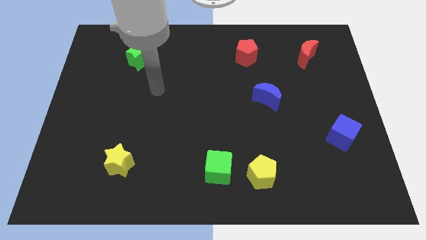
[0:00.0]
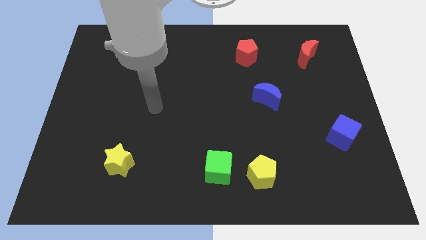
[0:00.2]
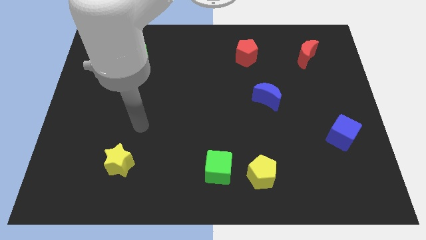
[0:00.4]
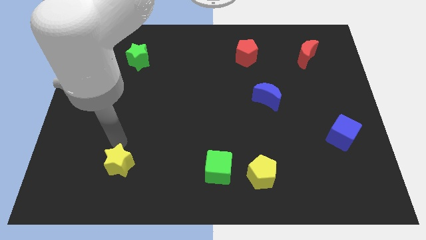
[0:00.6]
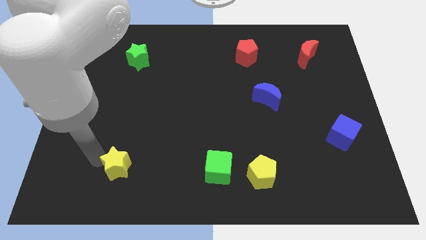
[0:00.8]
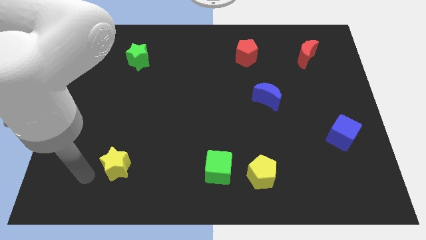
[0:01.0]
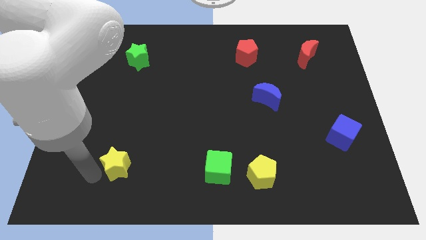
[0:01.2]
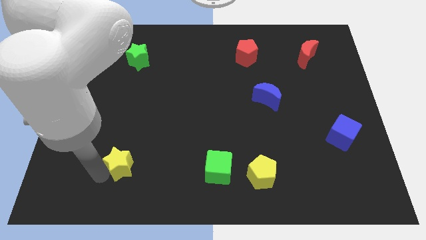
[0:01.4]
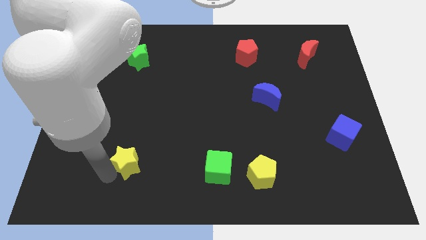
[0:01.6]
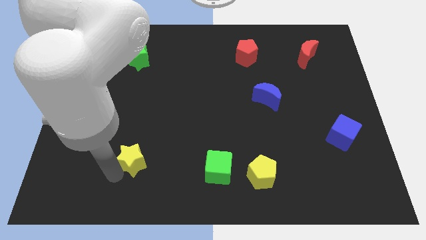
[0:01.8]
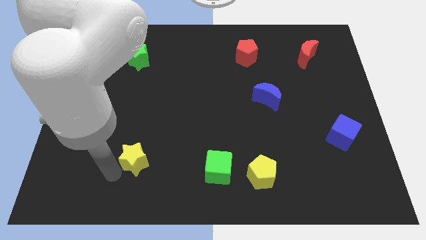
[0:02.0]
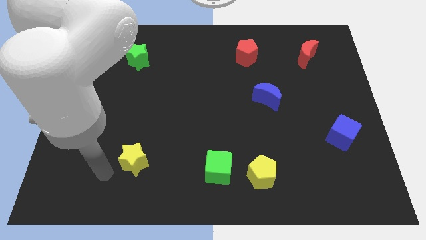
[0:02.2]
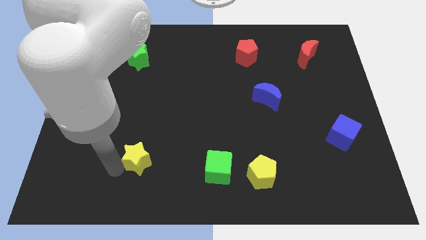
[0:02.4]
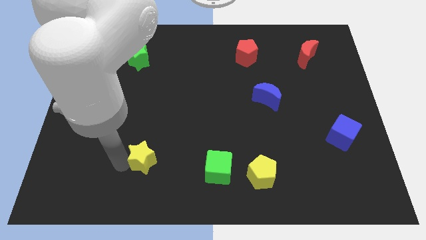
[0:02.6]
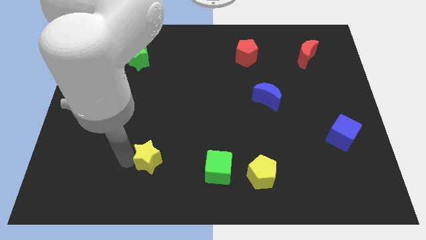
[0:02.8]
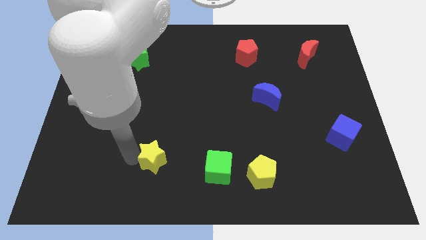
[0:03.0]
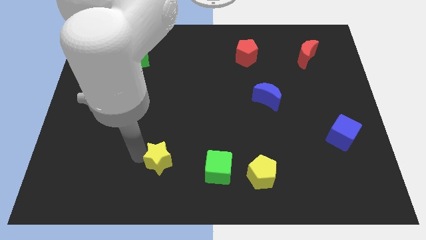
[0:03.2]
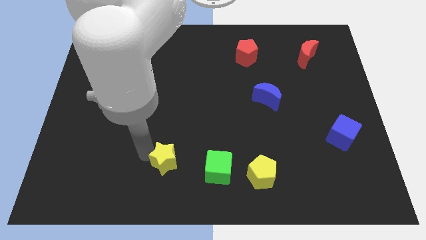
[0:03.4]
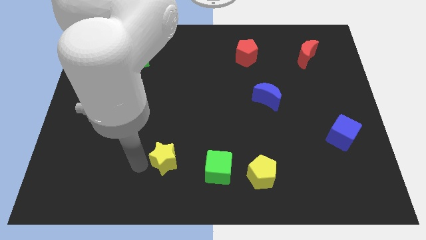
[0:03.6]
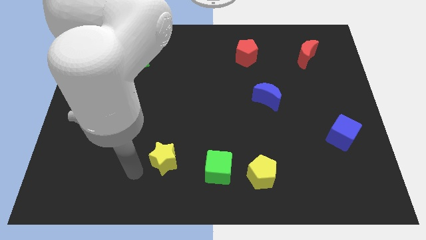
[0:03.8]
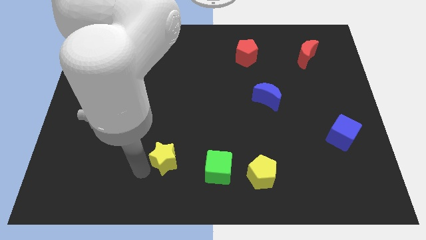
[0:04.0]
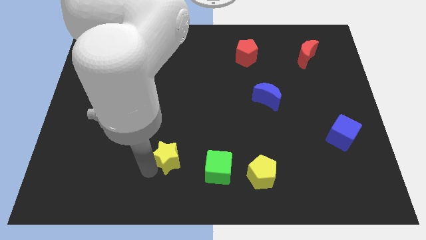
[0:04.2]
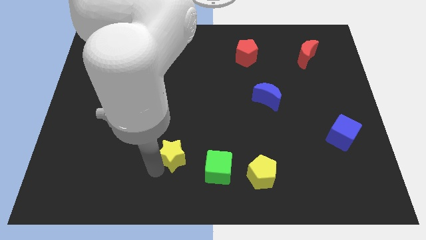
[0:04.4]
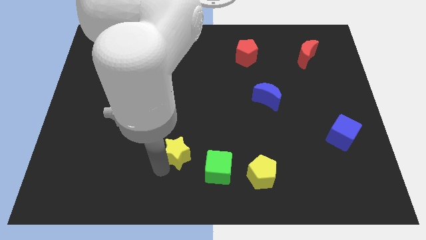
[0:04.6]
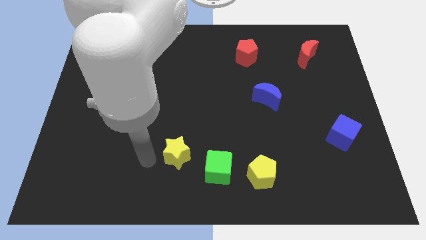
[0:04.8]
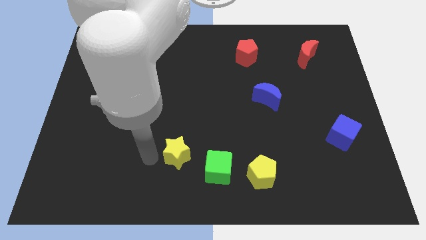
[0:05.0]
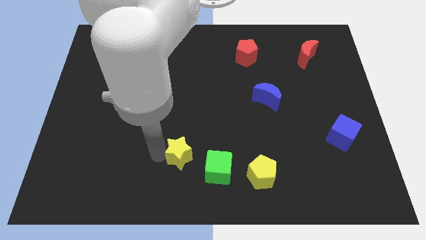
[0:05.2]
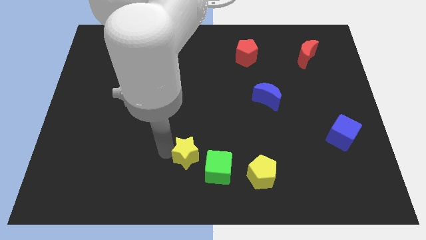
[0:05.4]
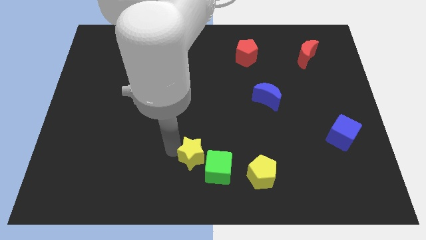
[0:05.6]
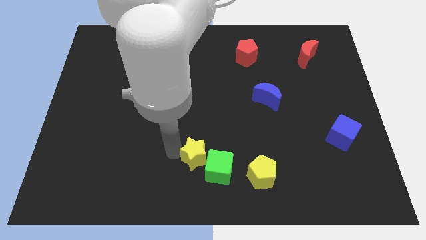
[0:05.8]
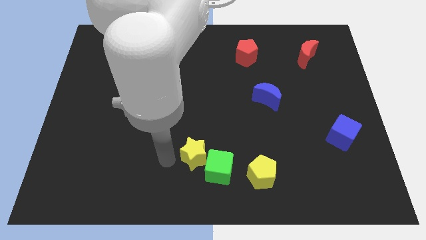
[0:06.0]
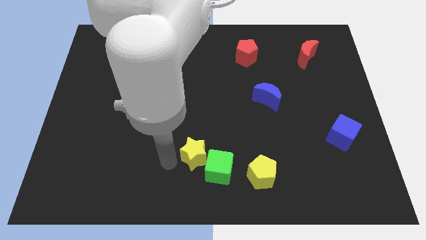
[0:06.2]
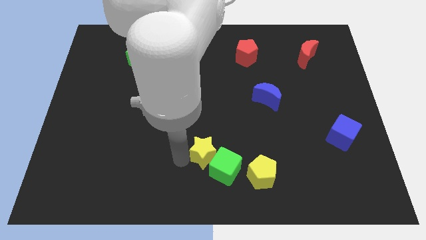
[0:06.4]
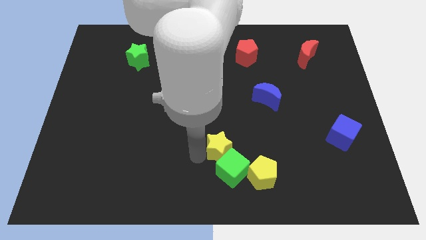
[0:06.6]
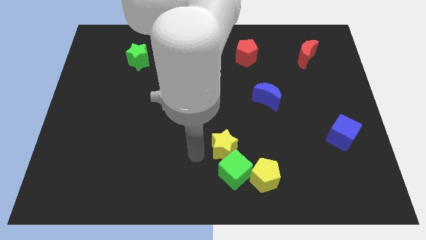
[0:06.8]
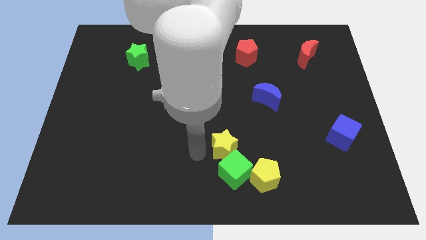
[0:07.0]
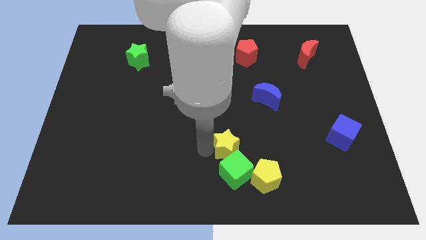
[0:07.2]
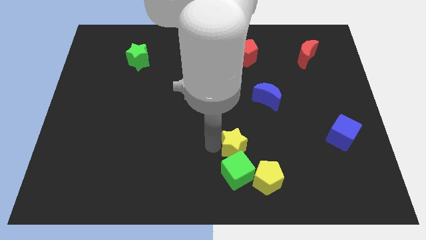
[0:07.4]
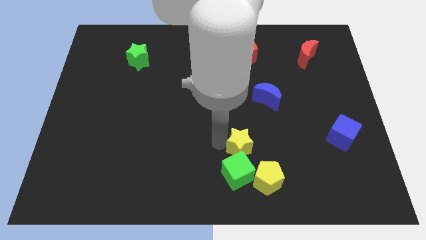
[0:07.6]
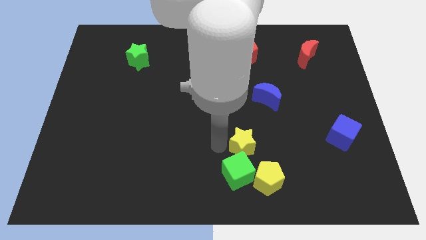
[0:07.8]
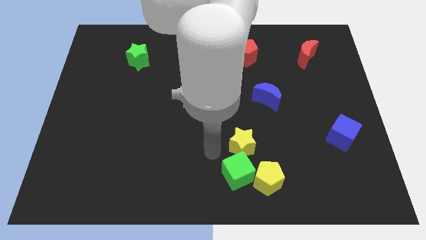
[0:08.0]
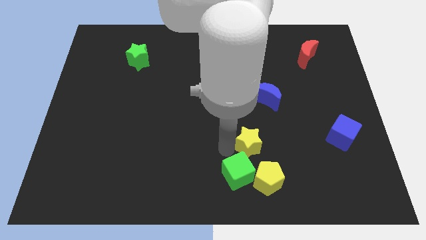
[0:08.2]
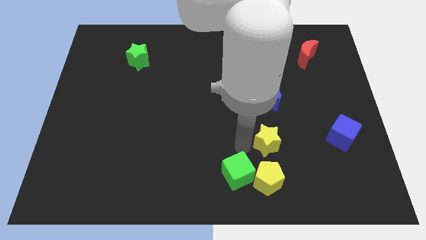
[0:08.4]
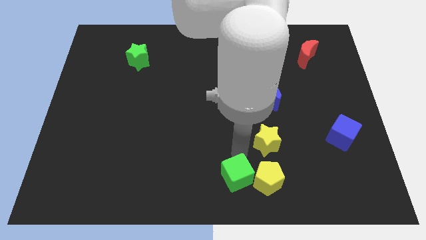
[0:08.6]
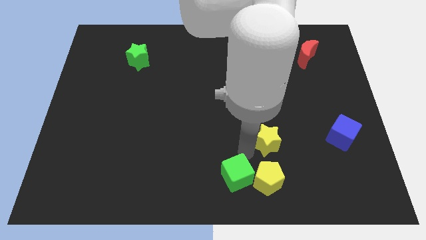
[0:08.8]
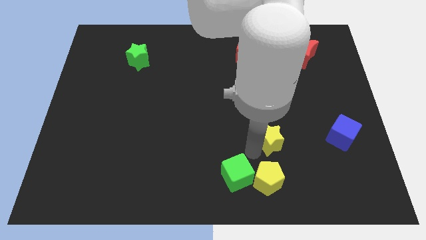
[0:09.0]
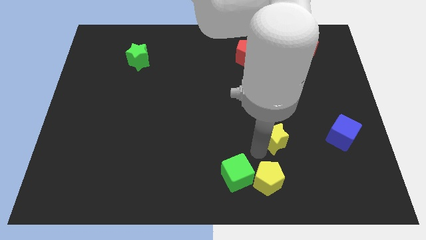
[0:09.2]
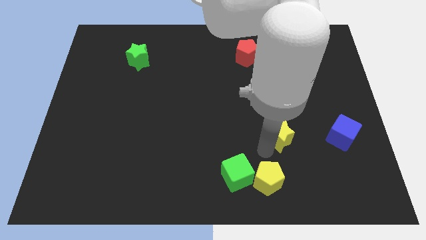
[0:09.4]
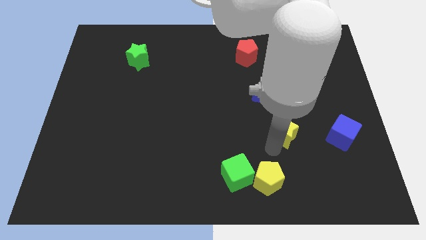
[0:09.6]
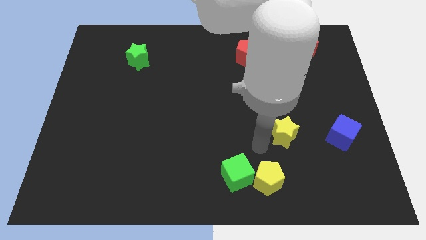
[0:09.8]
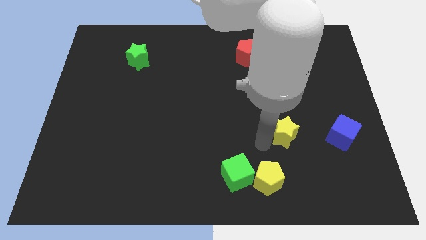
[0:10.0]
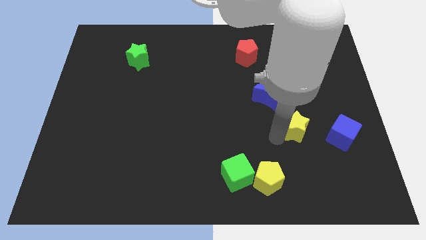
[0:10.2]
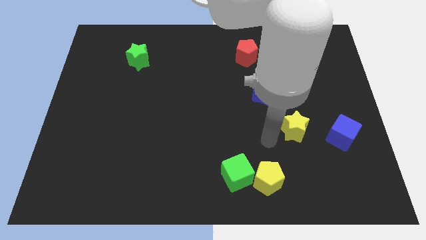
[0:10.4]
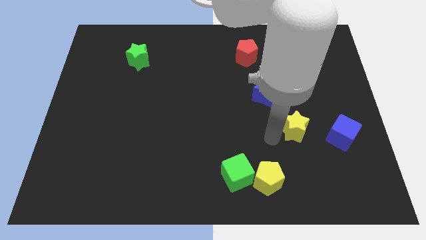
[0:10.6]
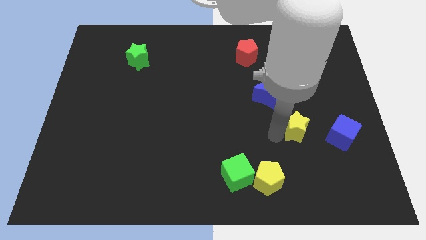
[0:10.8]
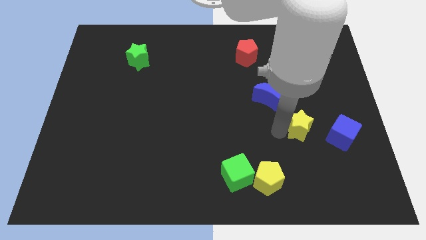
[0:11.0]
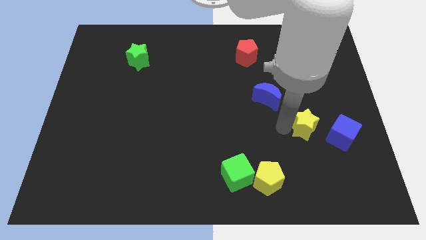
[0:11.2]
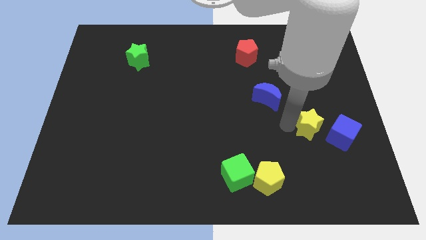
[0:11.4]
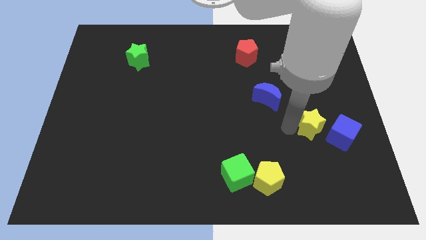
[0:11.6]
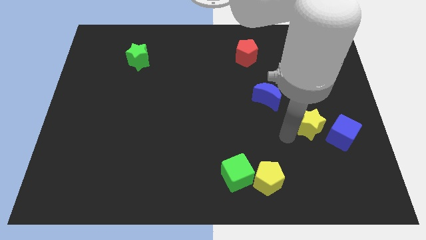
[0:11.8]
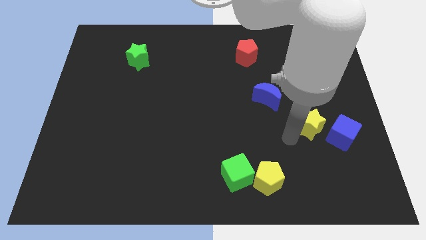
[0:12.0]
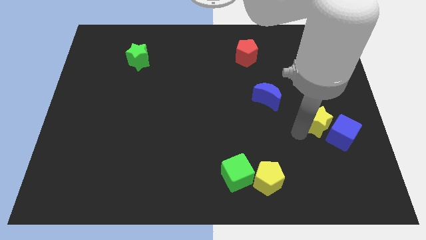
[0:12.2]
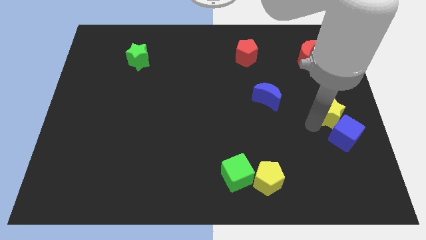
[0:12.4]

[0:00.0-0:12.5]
put the yellow star to the right side of the board

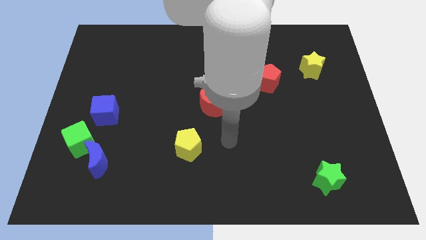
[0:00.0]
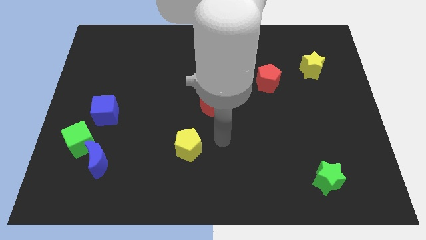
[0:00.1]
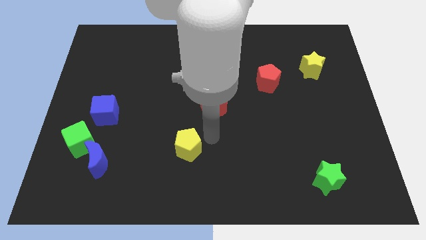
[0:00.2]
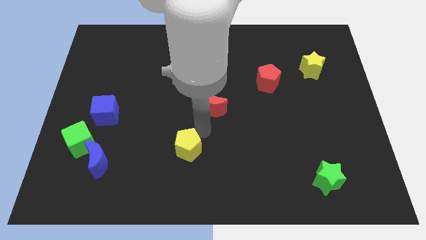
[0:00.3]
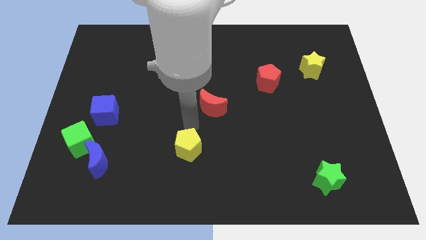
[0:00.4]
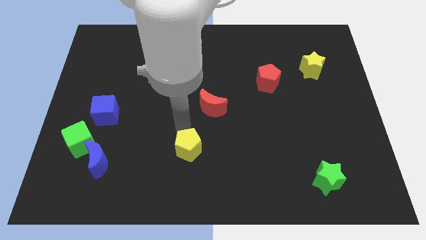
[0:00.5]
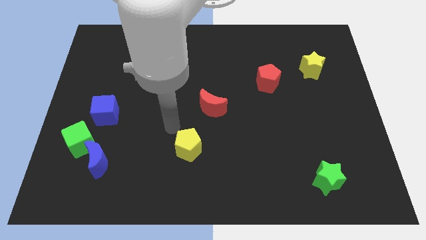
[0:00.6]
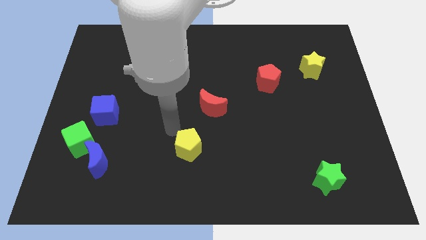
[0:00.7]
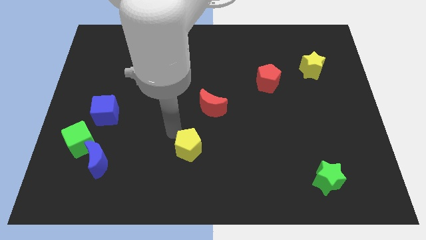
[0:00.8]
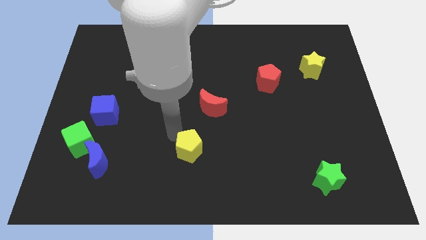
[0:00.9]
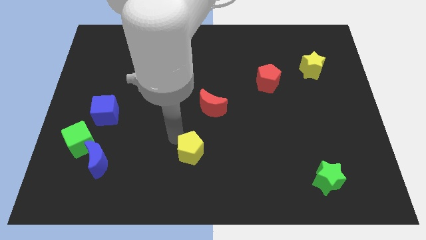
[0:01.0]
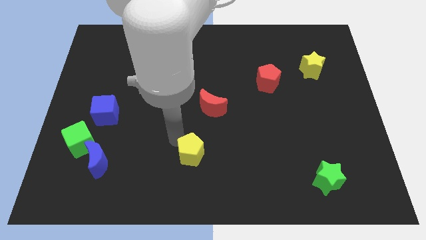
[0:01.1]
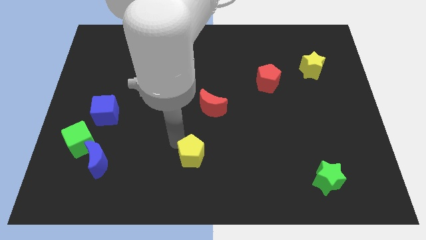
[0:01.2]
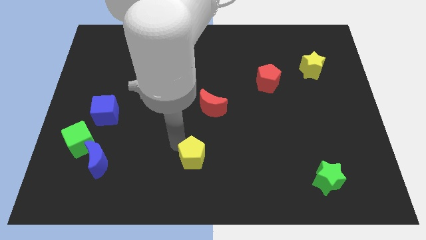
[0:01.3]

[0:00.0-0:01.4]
push the yellow pentagon to the bottom
